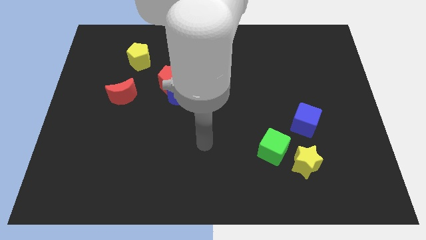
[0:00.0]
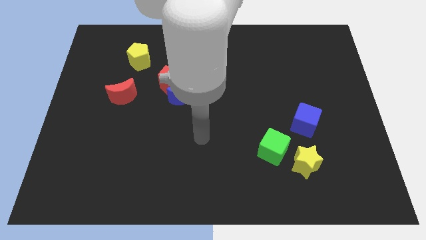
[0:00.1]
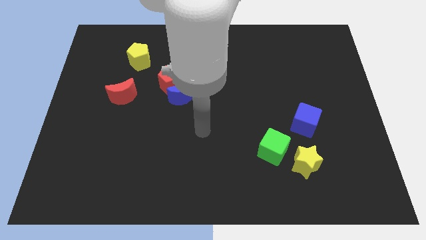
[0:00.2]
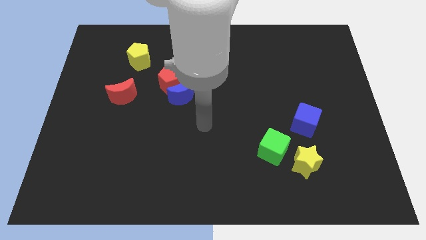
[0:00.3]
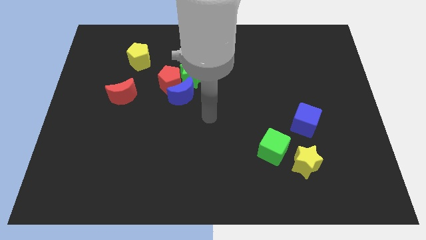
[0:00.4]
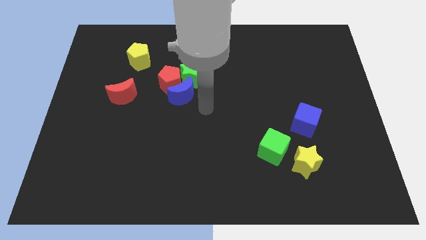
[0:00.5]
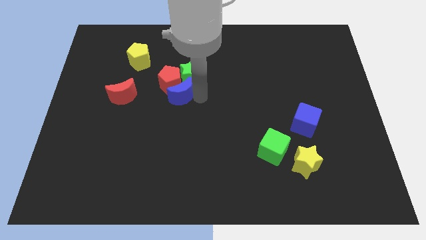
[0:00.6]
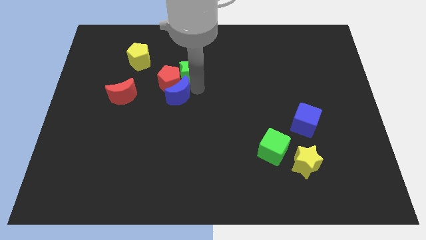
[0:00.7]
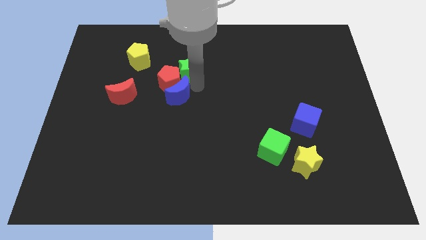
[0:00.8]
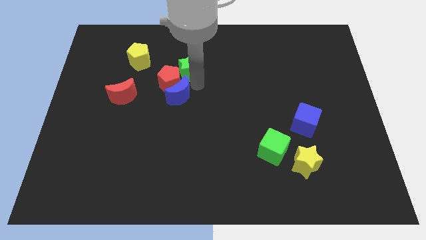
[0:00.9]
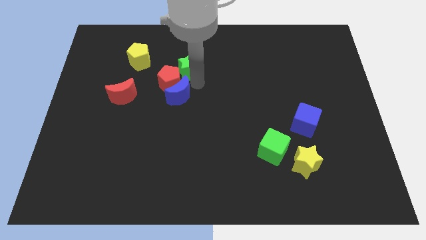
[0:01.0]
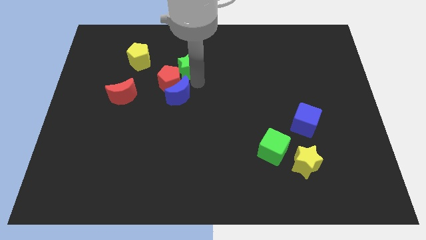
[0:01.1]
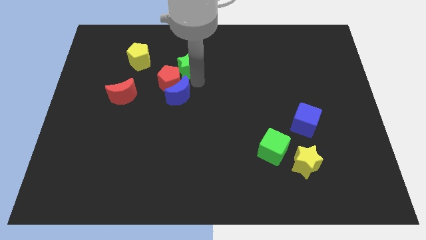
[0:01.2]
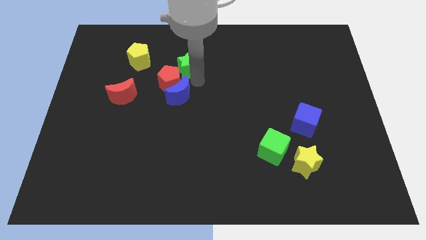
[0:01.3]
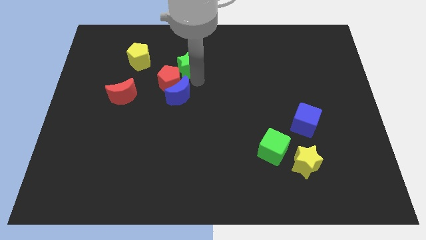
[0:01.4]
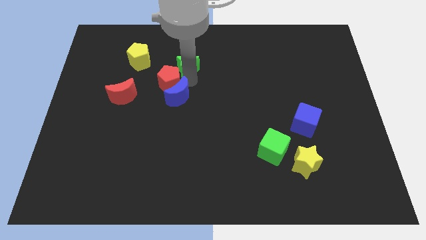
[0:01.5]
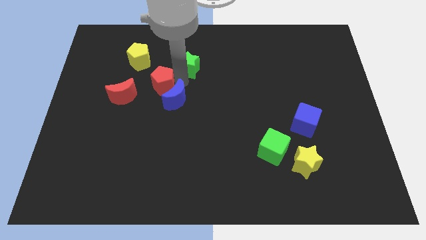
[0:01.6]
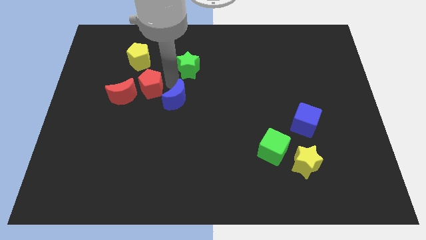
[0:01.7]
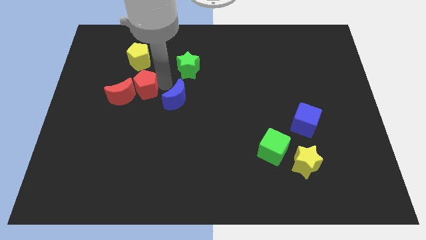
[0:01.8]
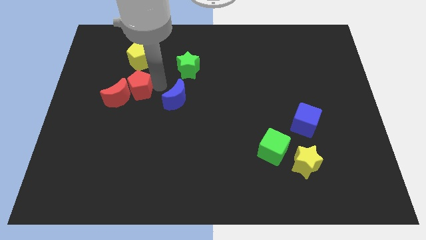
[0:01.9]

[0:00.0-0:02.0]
pull the red pentagon apart from the blue moon and green star

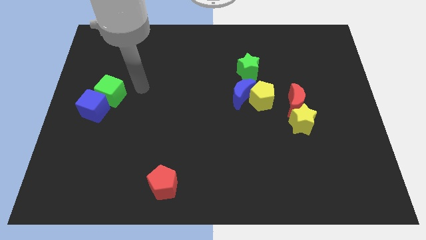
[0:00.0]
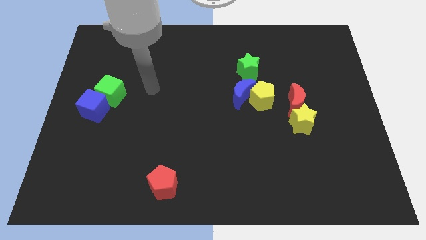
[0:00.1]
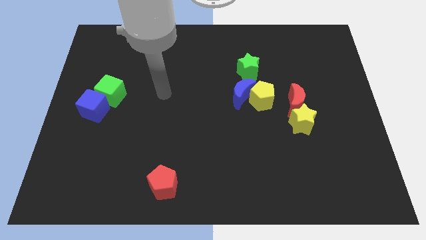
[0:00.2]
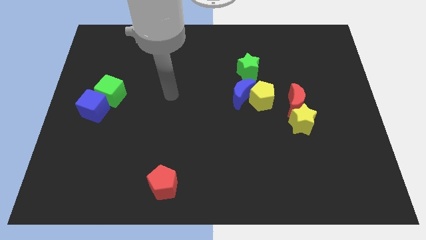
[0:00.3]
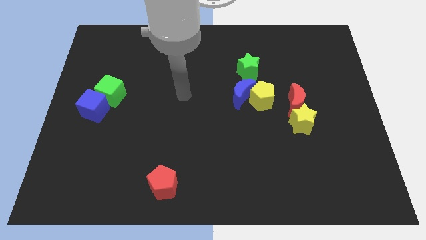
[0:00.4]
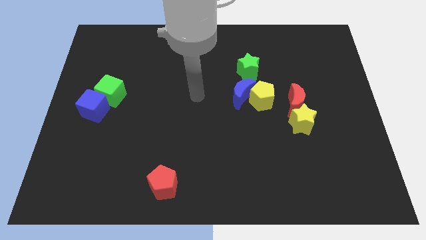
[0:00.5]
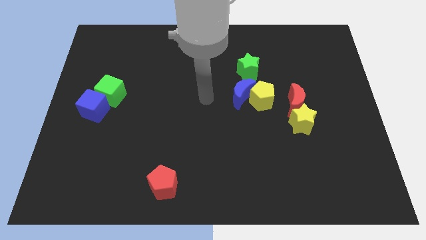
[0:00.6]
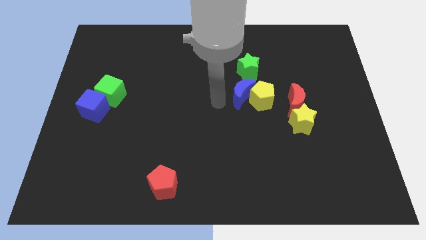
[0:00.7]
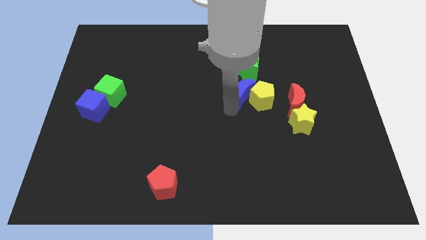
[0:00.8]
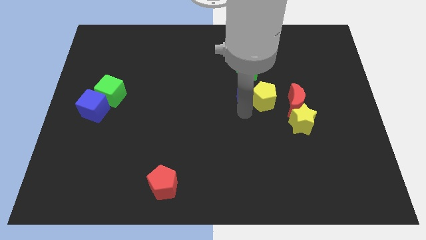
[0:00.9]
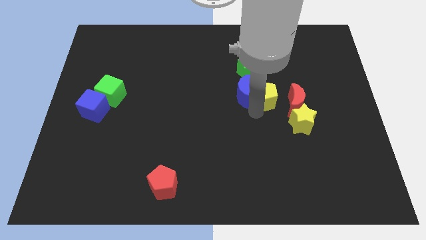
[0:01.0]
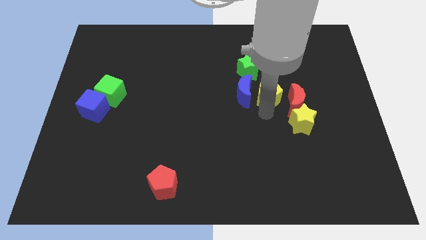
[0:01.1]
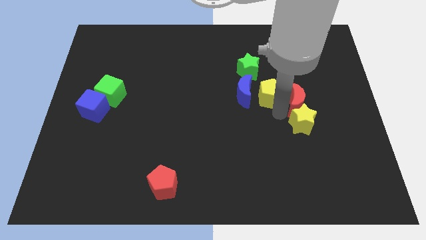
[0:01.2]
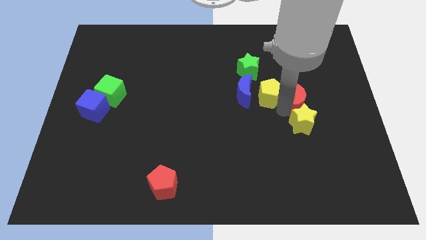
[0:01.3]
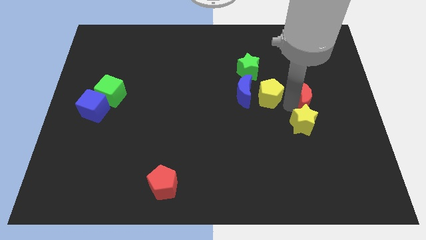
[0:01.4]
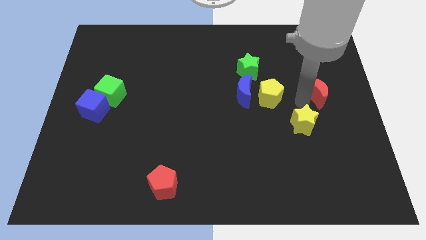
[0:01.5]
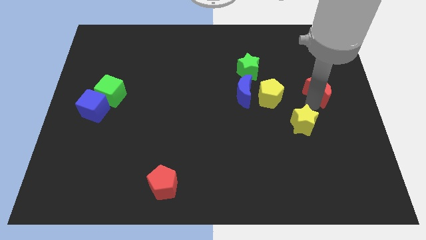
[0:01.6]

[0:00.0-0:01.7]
move the yellow star away from the red moon

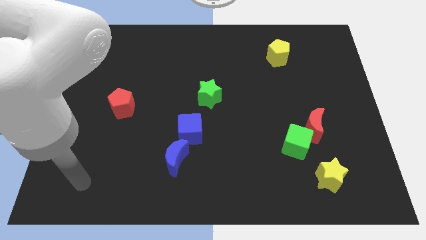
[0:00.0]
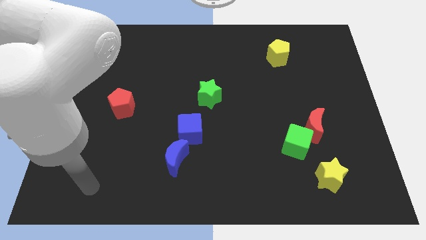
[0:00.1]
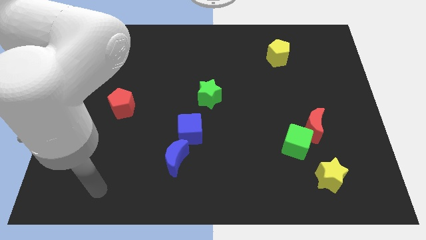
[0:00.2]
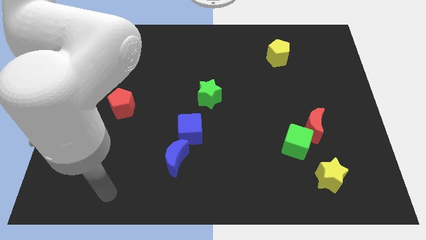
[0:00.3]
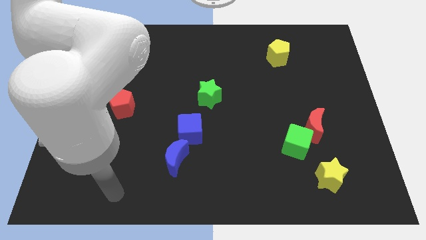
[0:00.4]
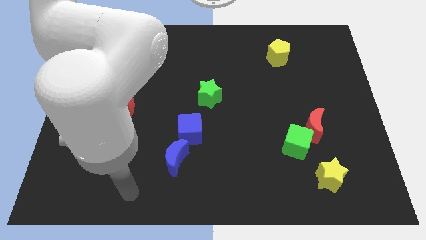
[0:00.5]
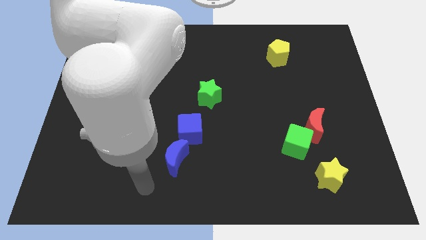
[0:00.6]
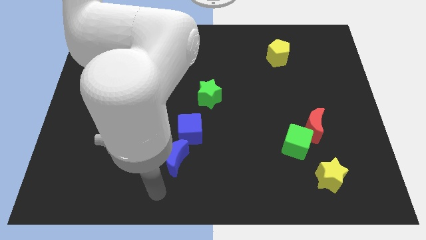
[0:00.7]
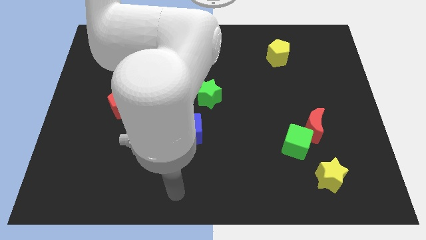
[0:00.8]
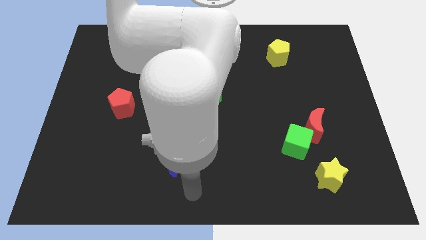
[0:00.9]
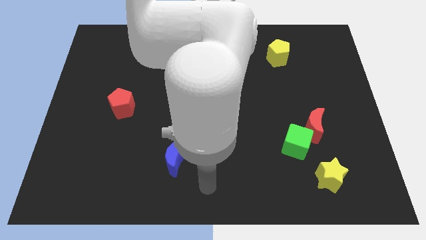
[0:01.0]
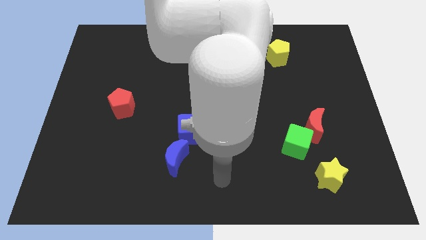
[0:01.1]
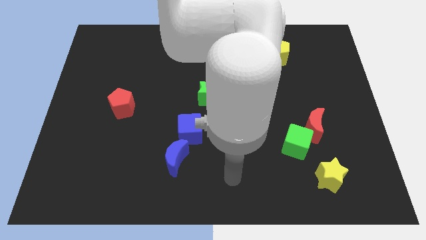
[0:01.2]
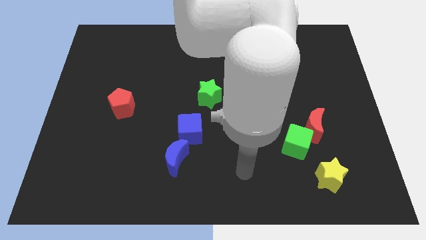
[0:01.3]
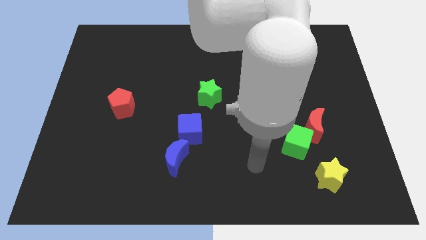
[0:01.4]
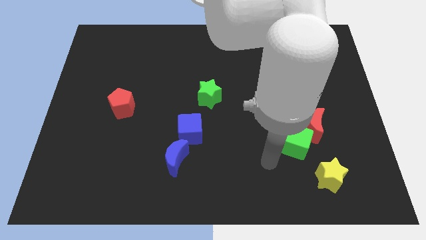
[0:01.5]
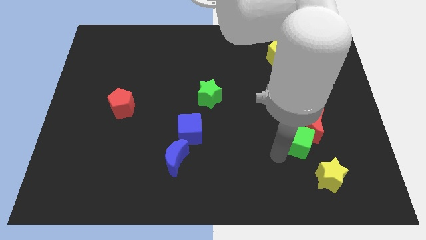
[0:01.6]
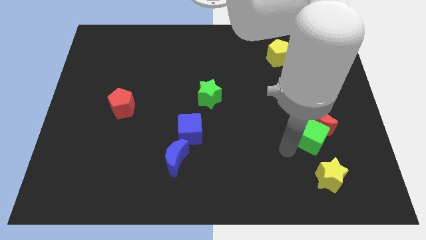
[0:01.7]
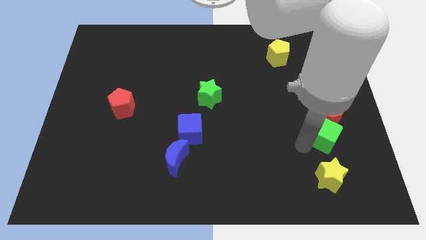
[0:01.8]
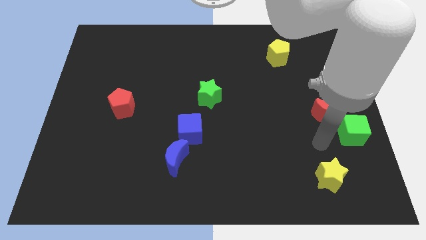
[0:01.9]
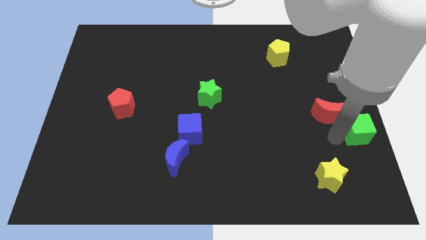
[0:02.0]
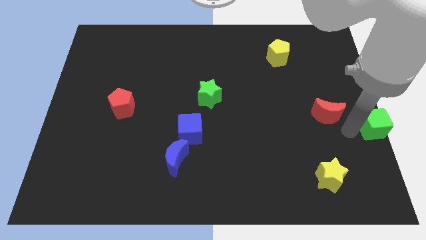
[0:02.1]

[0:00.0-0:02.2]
move the red moon away from the green cube

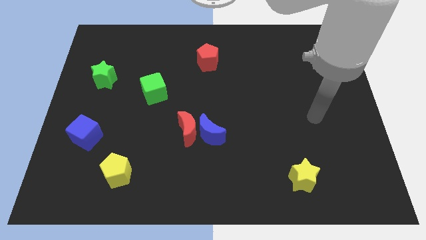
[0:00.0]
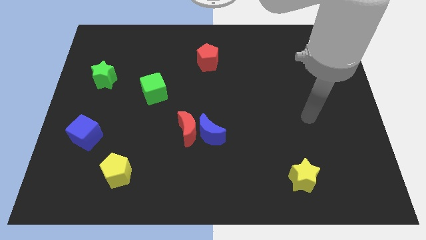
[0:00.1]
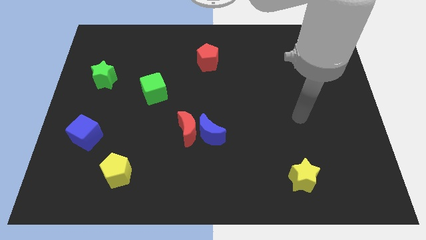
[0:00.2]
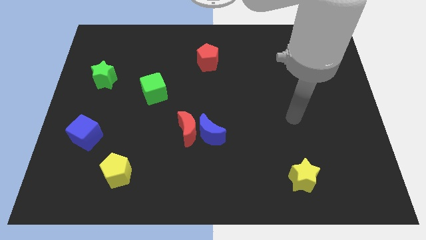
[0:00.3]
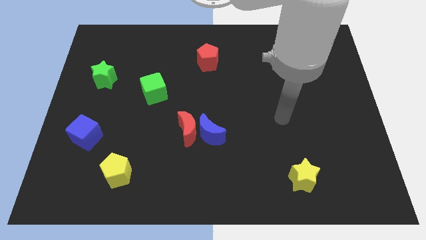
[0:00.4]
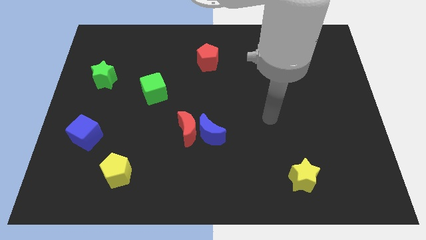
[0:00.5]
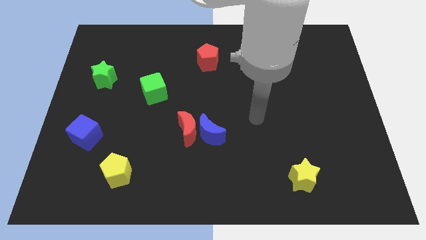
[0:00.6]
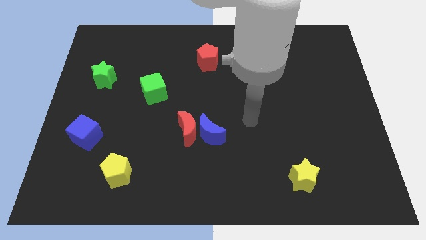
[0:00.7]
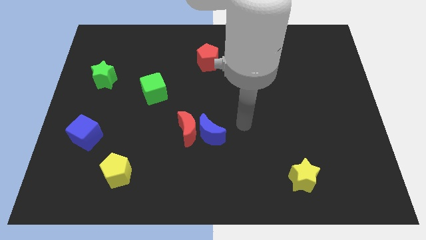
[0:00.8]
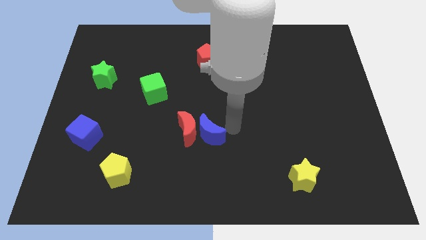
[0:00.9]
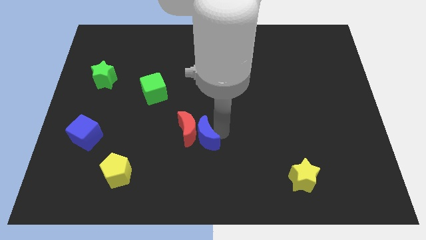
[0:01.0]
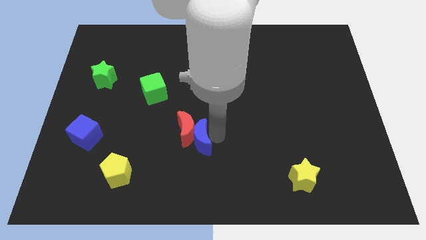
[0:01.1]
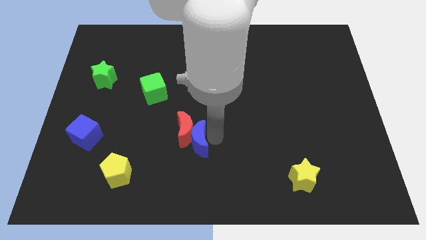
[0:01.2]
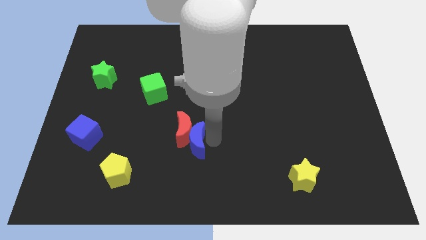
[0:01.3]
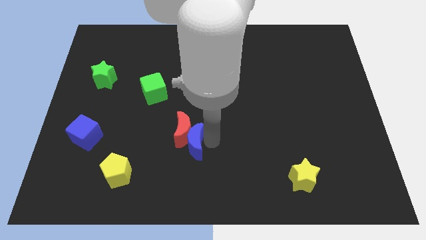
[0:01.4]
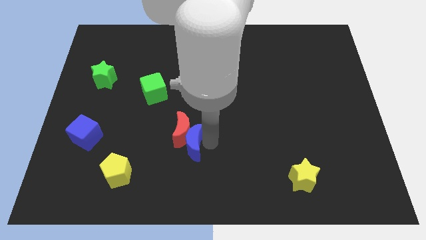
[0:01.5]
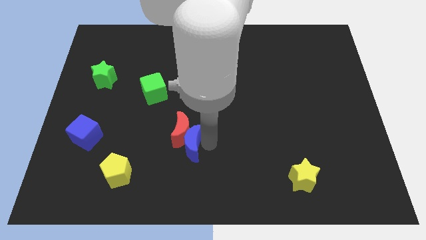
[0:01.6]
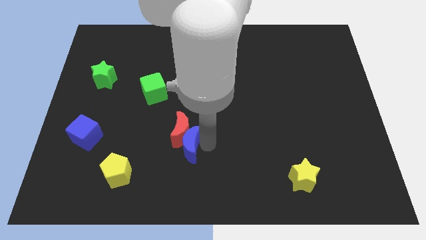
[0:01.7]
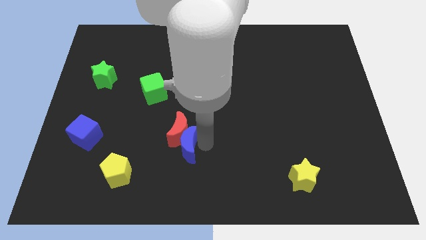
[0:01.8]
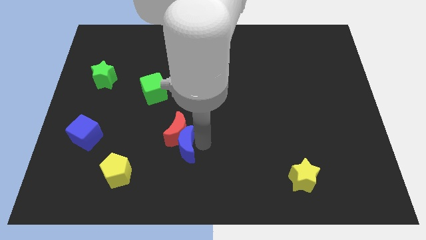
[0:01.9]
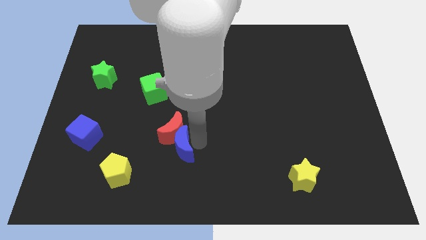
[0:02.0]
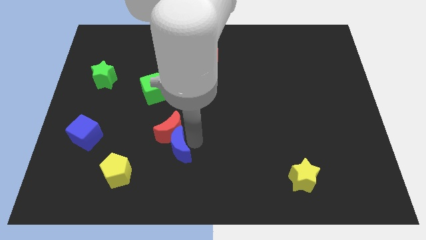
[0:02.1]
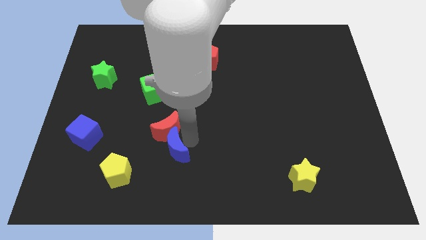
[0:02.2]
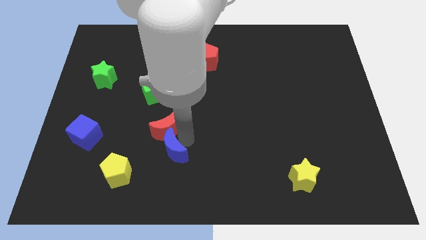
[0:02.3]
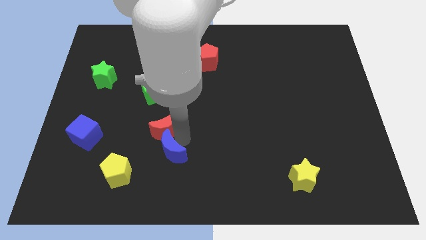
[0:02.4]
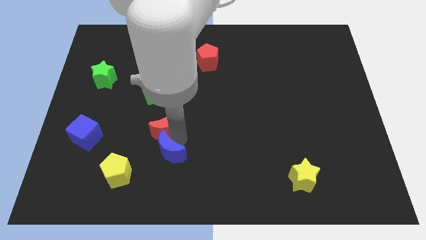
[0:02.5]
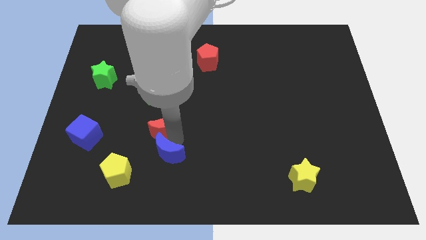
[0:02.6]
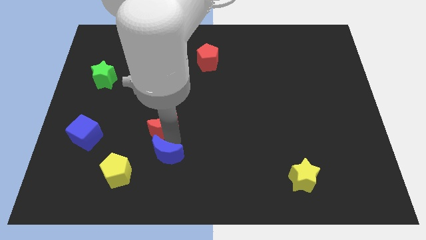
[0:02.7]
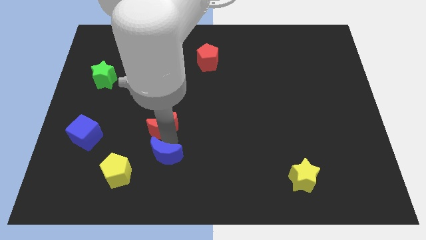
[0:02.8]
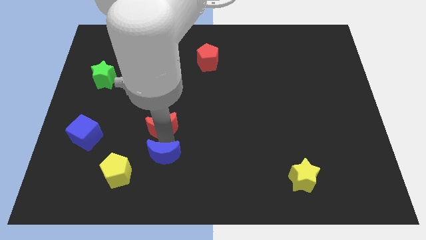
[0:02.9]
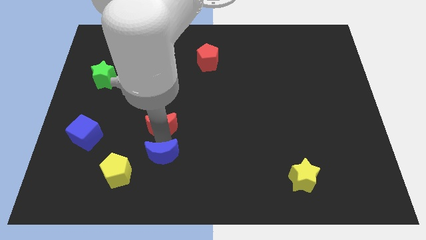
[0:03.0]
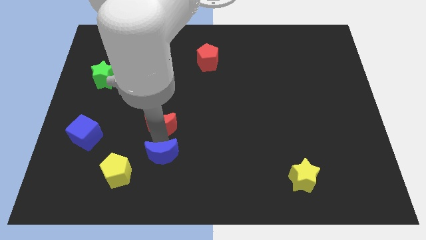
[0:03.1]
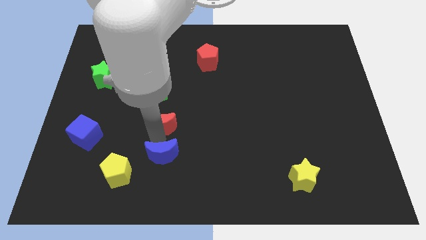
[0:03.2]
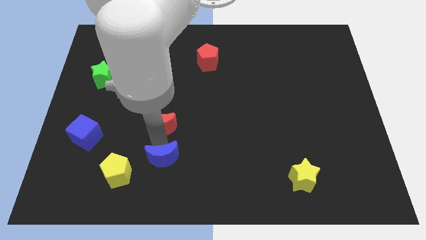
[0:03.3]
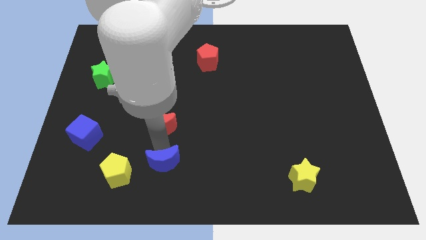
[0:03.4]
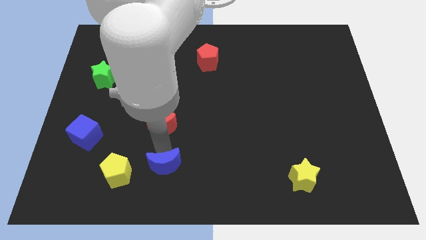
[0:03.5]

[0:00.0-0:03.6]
move the red moon away from the blue moon
